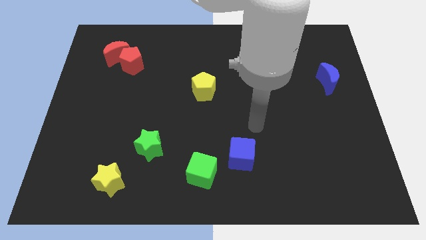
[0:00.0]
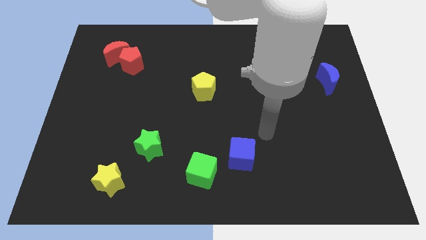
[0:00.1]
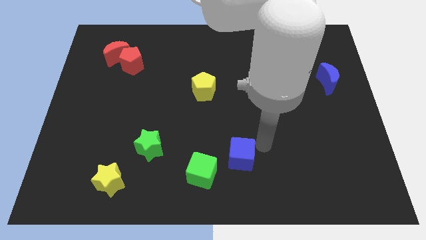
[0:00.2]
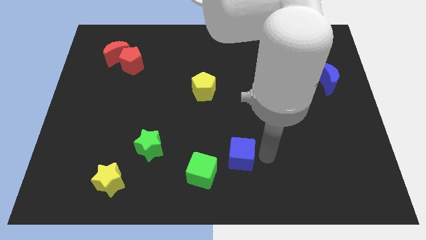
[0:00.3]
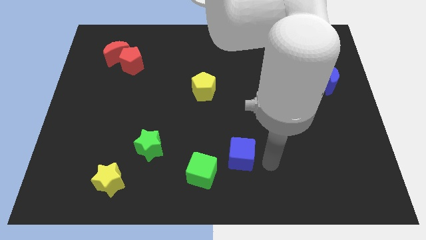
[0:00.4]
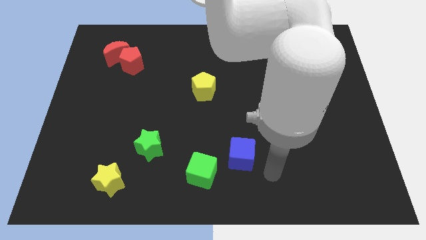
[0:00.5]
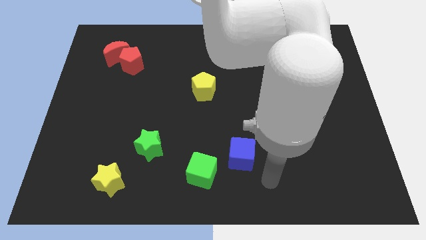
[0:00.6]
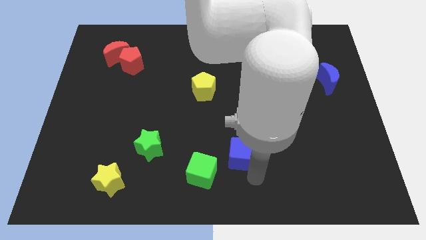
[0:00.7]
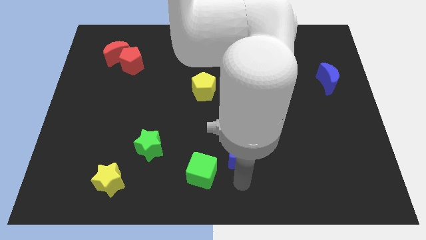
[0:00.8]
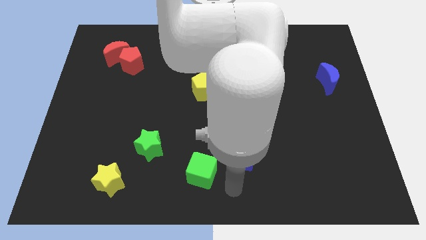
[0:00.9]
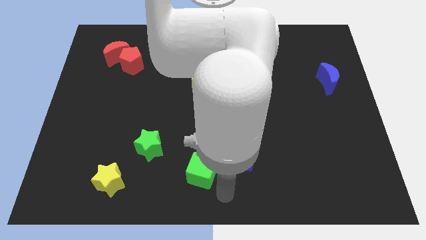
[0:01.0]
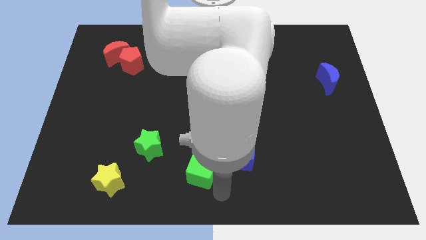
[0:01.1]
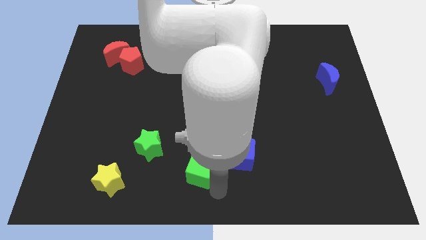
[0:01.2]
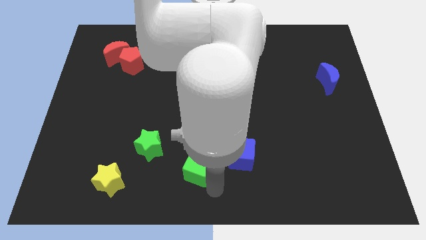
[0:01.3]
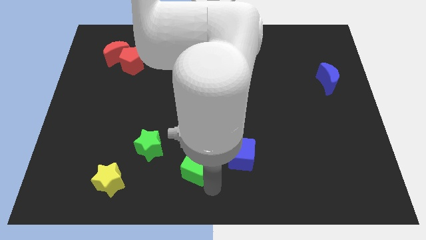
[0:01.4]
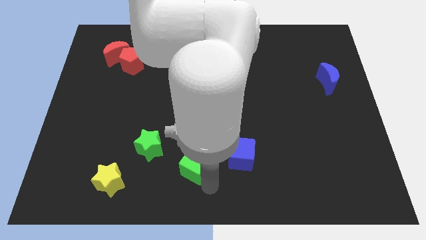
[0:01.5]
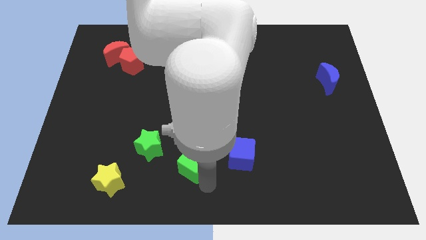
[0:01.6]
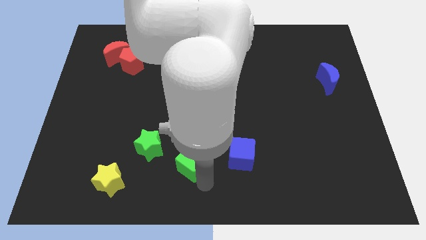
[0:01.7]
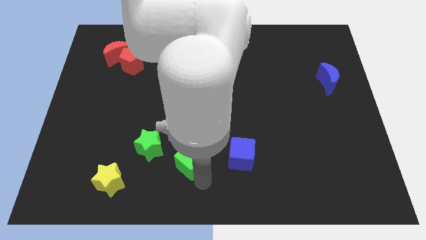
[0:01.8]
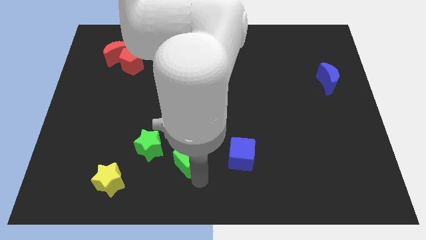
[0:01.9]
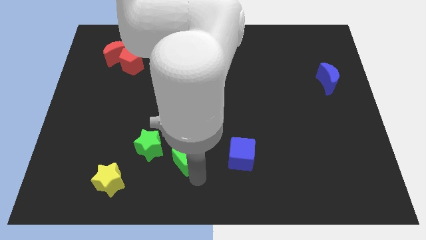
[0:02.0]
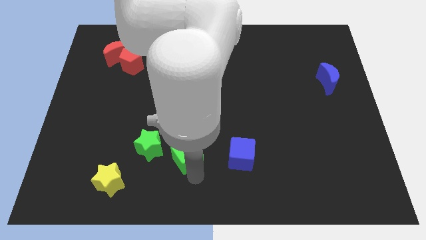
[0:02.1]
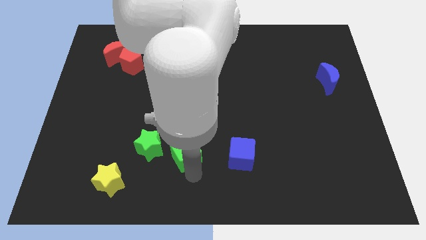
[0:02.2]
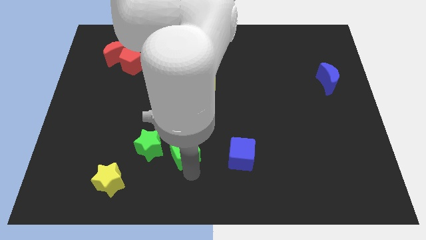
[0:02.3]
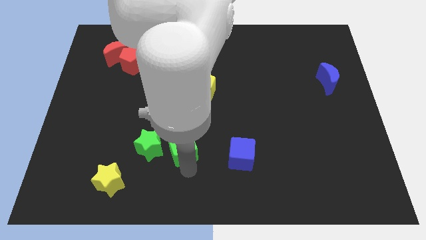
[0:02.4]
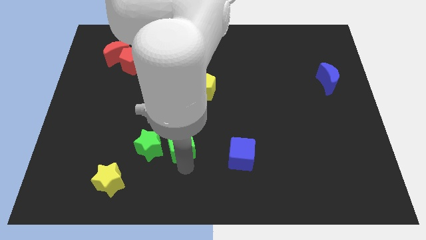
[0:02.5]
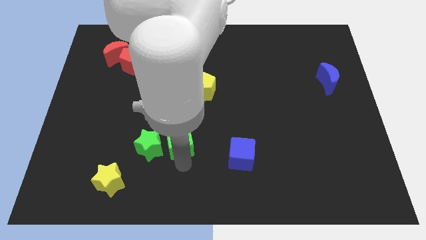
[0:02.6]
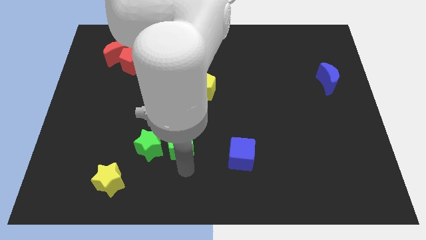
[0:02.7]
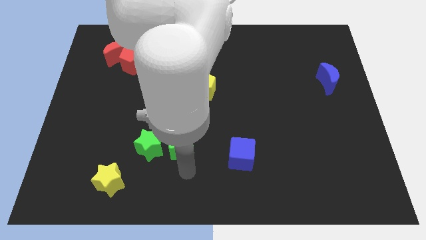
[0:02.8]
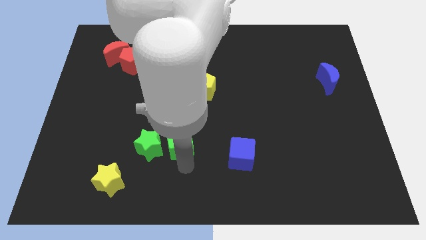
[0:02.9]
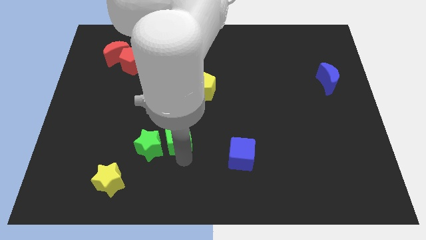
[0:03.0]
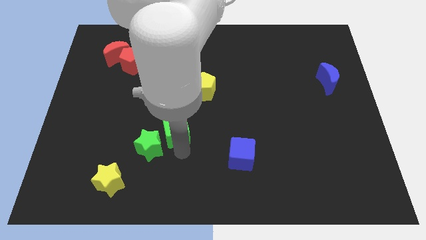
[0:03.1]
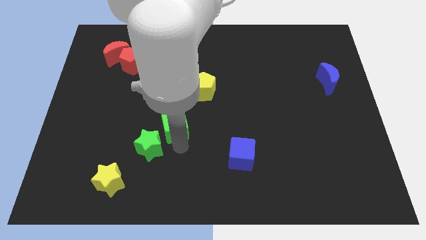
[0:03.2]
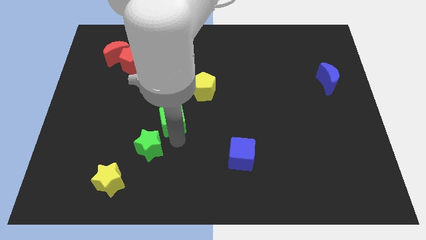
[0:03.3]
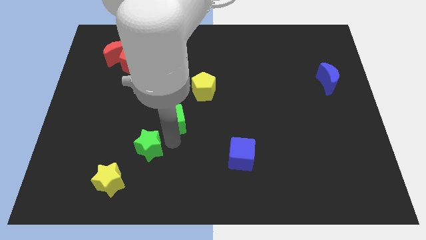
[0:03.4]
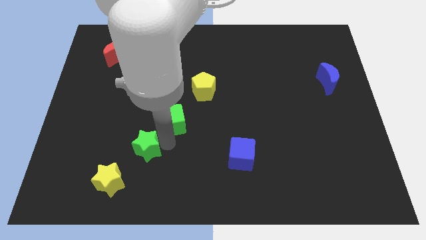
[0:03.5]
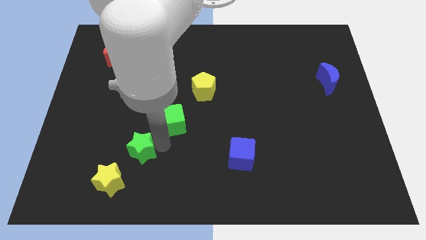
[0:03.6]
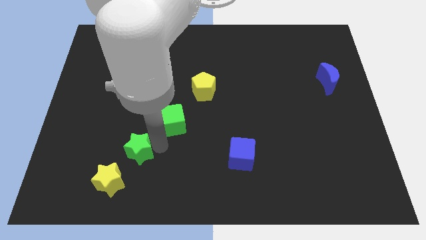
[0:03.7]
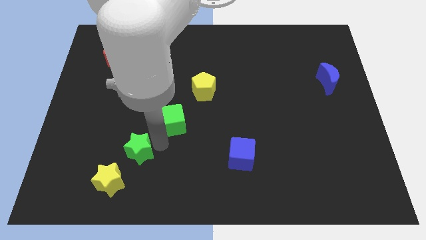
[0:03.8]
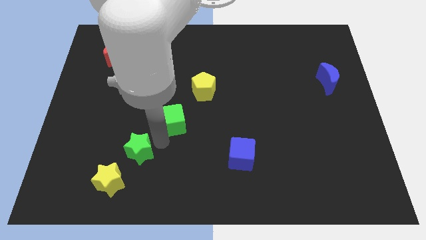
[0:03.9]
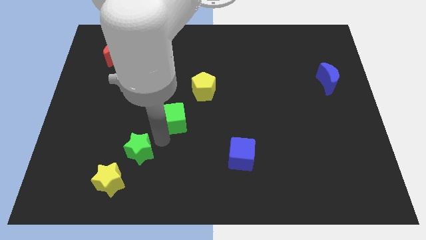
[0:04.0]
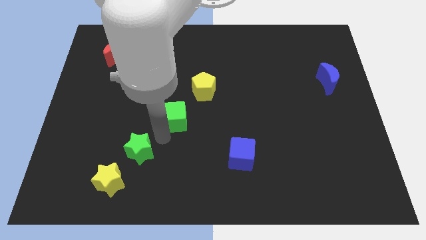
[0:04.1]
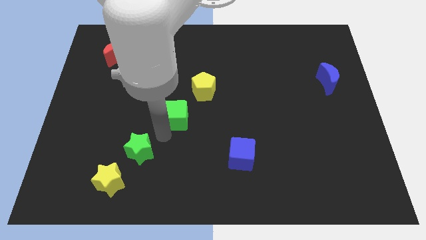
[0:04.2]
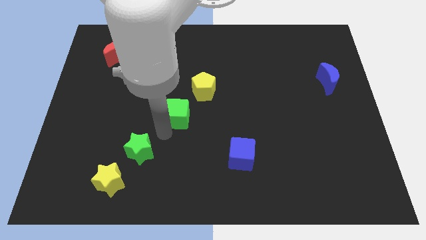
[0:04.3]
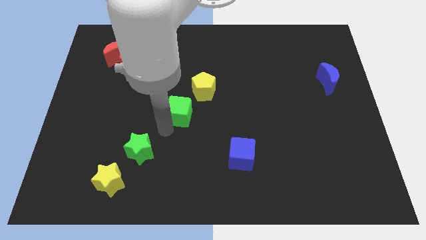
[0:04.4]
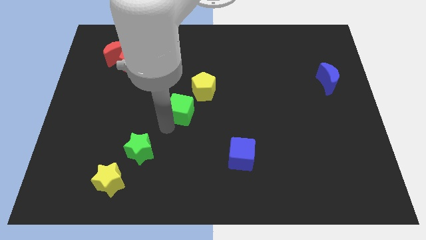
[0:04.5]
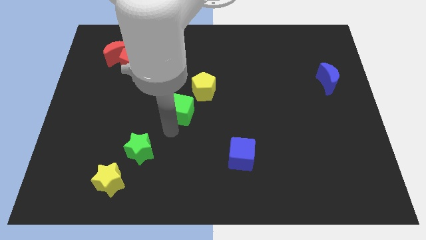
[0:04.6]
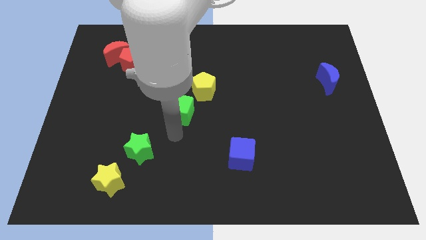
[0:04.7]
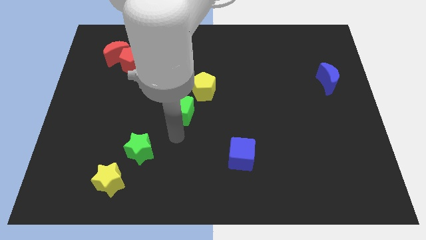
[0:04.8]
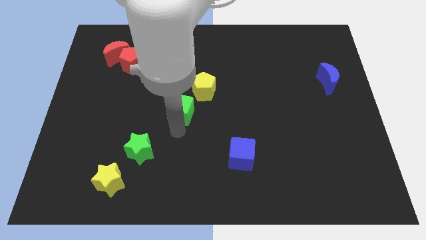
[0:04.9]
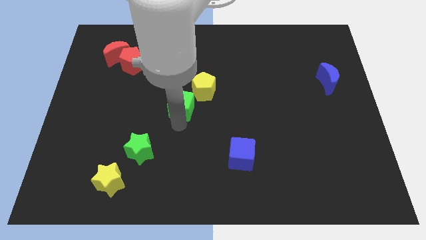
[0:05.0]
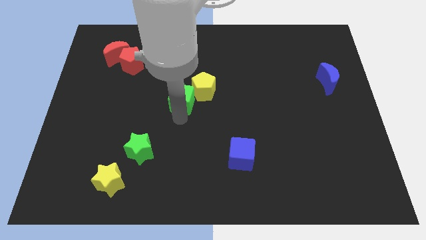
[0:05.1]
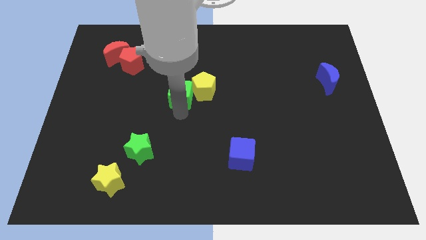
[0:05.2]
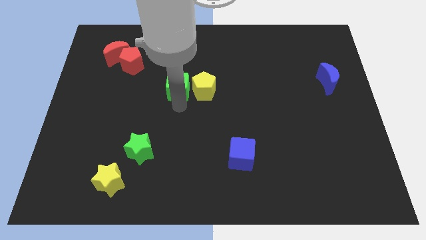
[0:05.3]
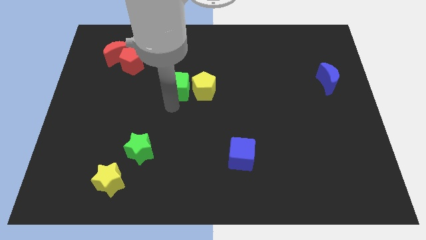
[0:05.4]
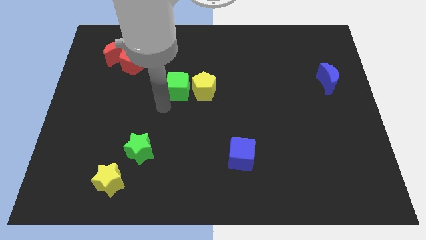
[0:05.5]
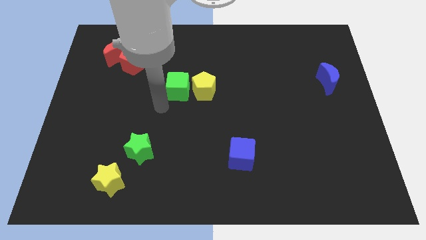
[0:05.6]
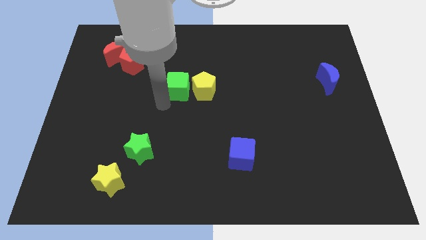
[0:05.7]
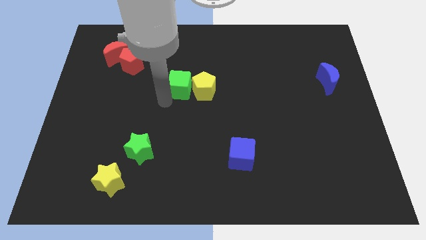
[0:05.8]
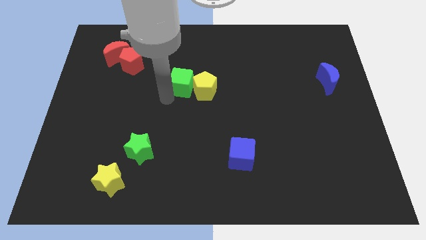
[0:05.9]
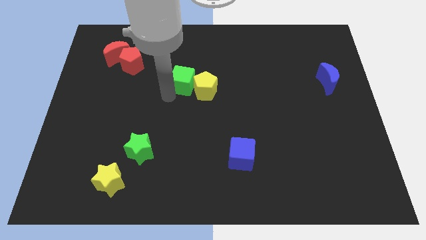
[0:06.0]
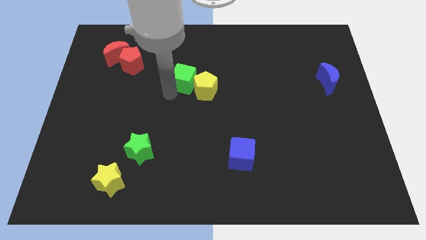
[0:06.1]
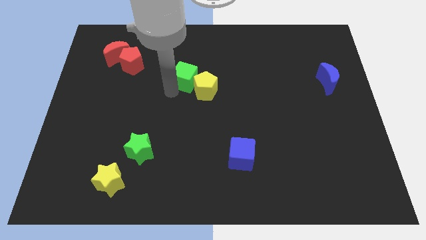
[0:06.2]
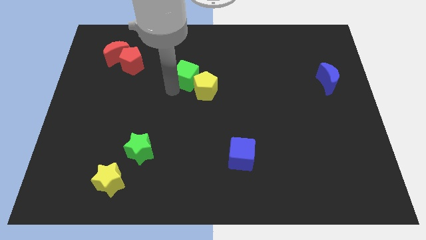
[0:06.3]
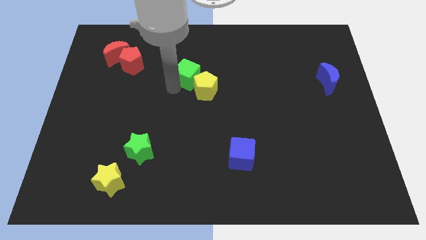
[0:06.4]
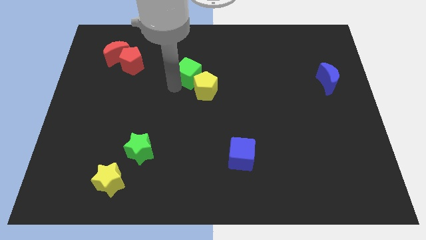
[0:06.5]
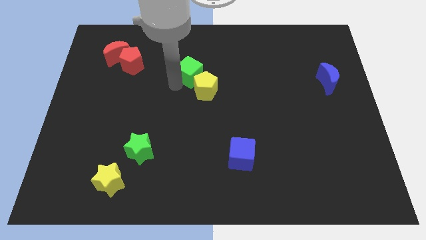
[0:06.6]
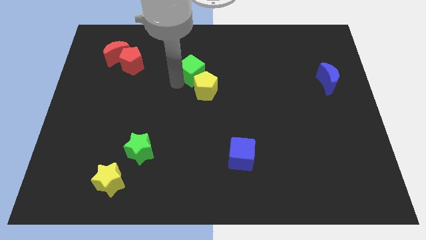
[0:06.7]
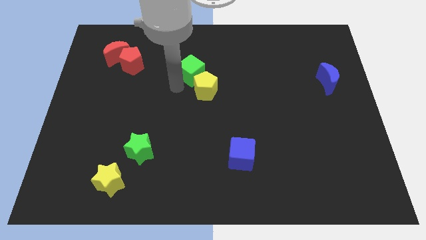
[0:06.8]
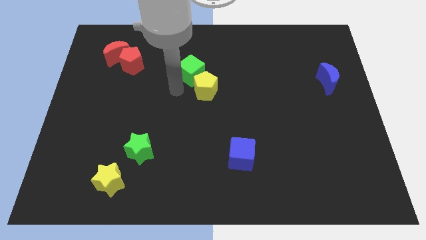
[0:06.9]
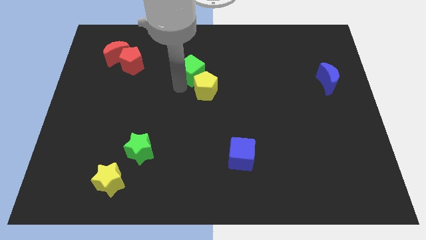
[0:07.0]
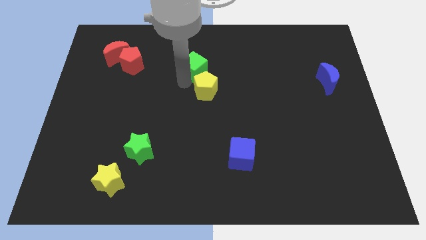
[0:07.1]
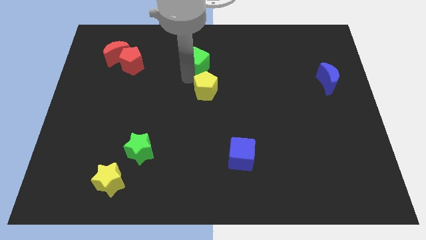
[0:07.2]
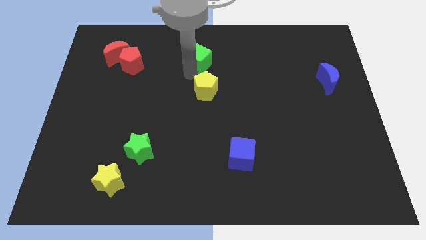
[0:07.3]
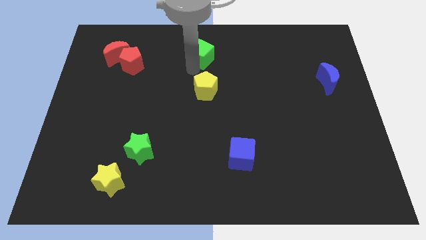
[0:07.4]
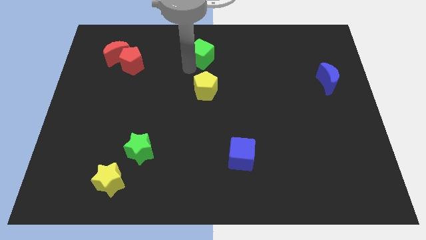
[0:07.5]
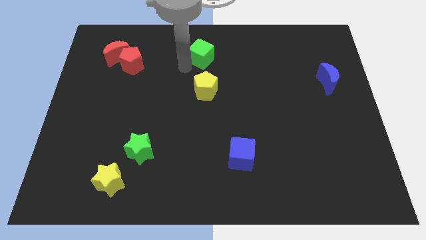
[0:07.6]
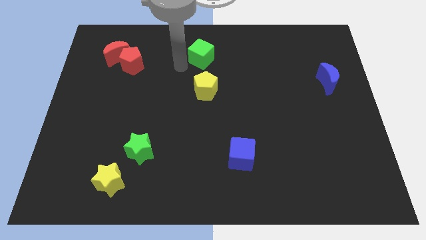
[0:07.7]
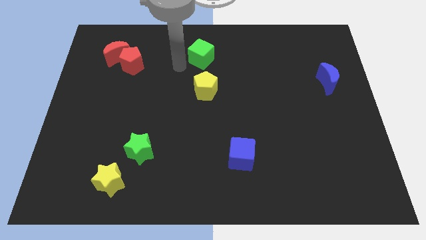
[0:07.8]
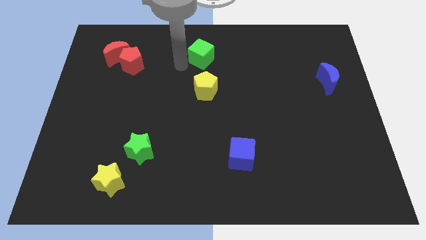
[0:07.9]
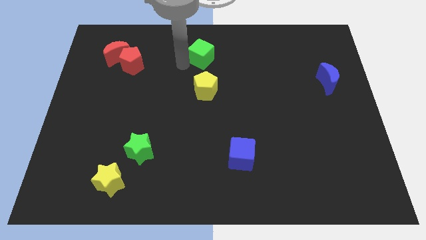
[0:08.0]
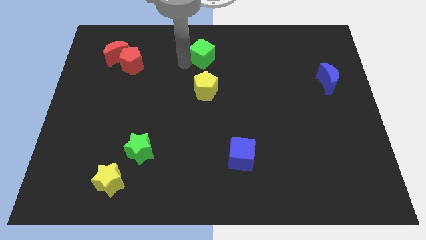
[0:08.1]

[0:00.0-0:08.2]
put the green cube to the top side
